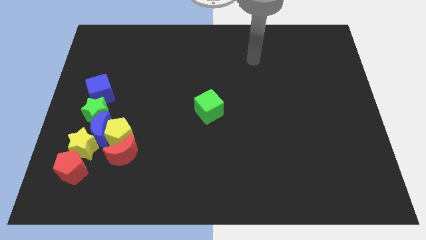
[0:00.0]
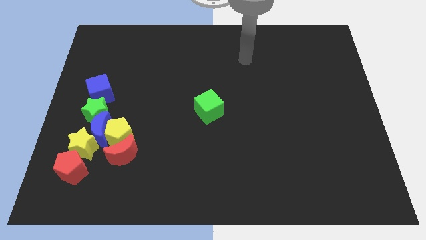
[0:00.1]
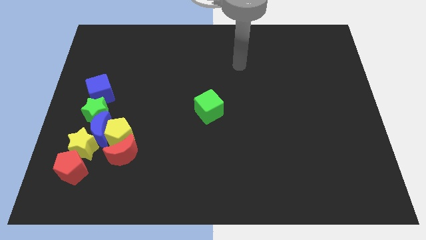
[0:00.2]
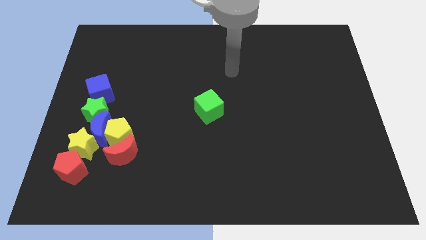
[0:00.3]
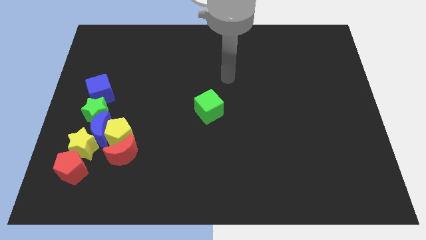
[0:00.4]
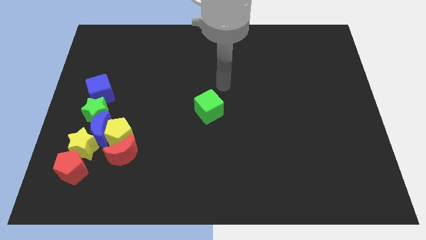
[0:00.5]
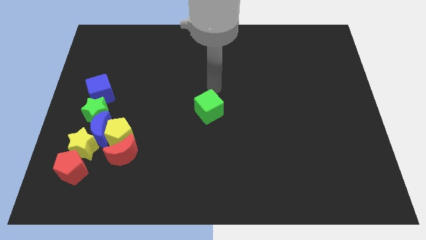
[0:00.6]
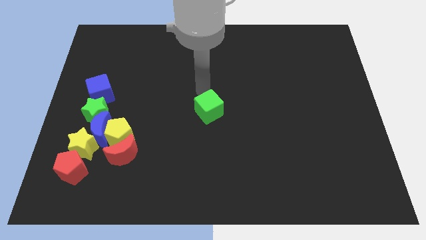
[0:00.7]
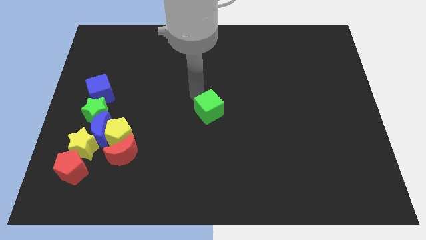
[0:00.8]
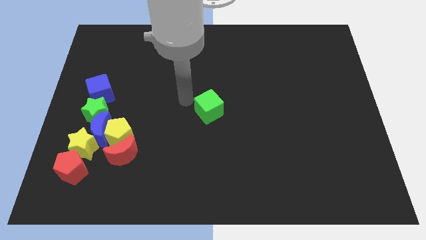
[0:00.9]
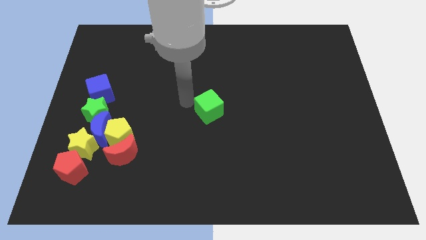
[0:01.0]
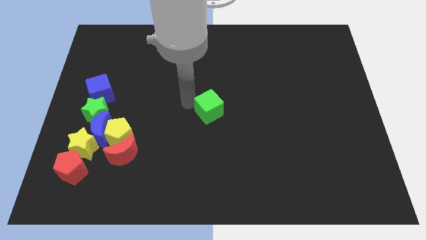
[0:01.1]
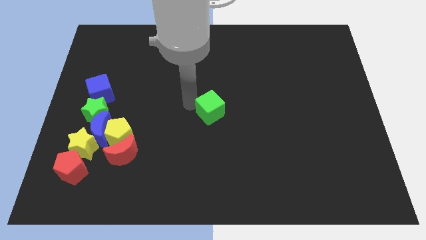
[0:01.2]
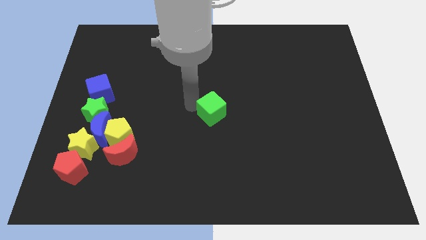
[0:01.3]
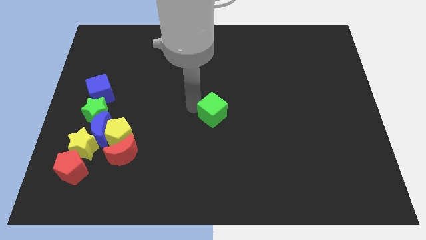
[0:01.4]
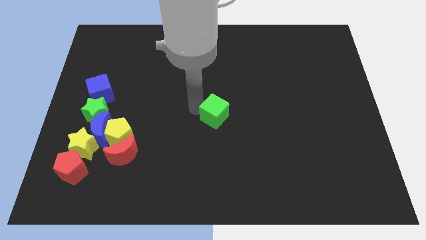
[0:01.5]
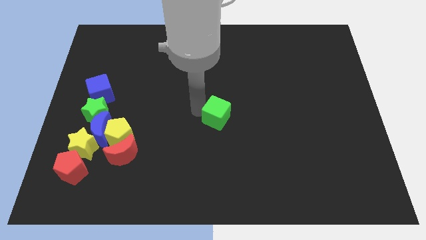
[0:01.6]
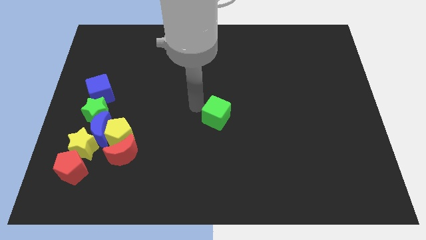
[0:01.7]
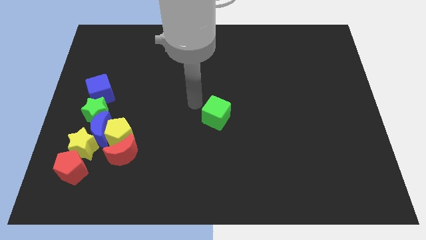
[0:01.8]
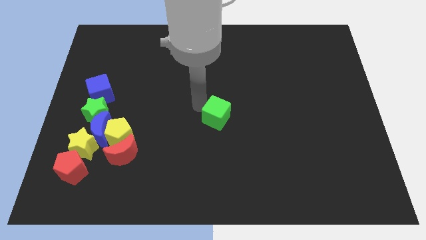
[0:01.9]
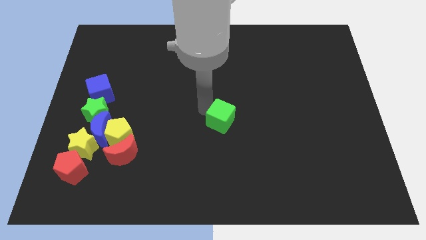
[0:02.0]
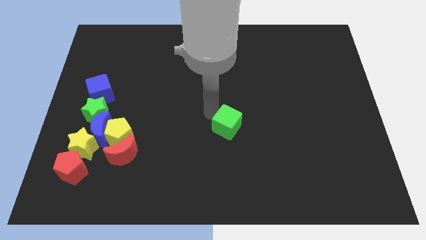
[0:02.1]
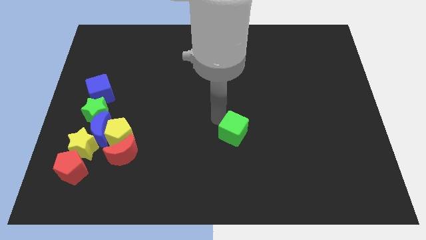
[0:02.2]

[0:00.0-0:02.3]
slide the green cube down and then right slightly

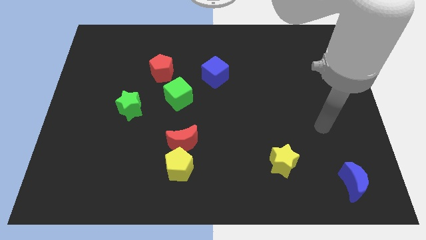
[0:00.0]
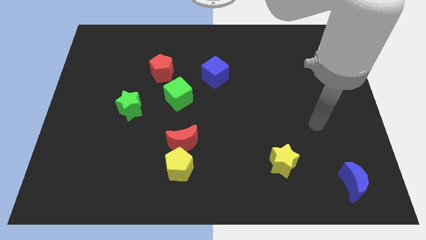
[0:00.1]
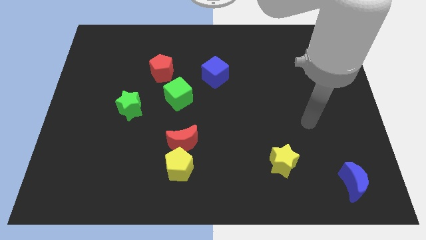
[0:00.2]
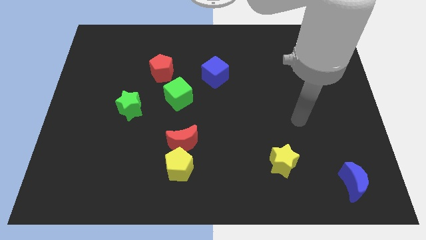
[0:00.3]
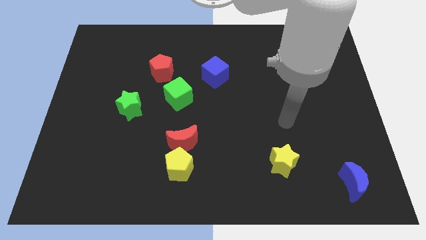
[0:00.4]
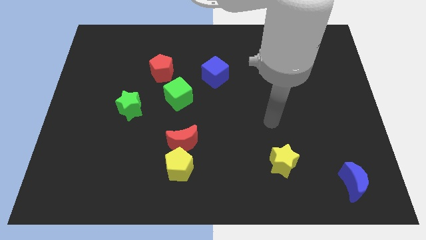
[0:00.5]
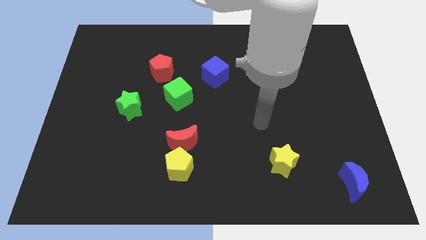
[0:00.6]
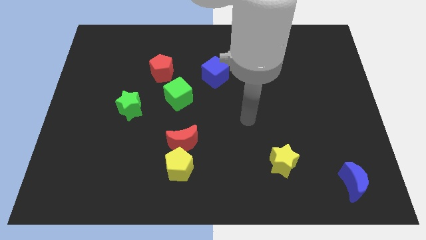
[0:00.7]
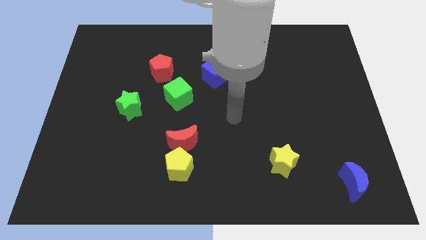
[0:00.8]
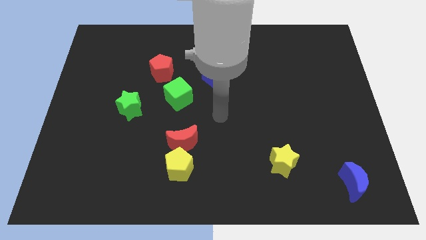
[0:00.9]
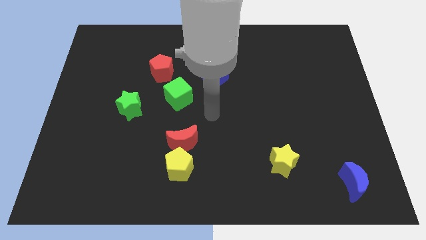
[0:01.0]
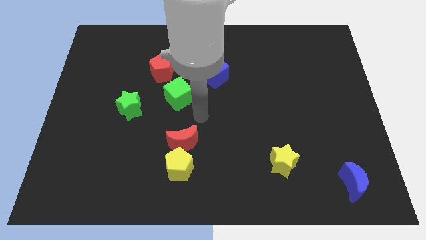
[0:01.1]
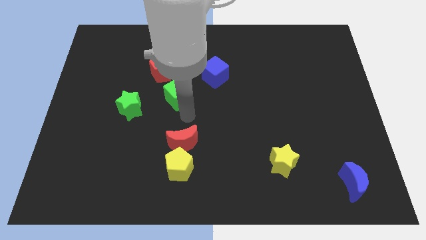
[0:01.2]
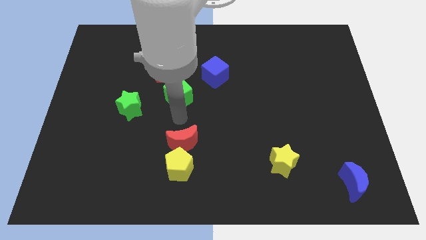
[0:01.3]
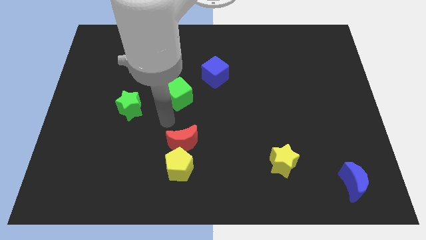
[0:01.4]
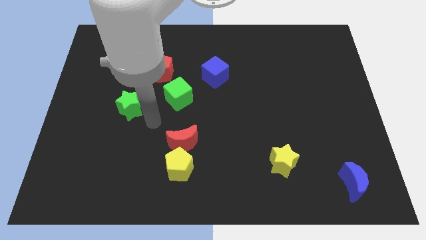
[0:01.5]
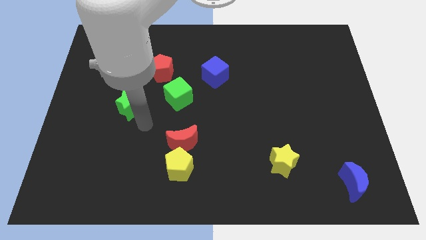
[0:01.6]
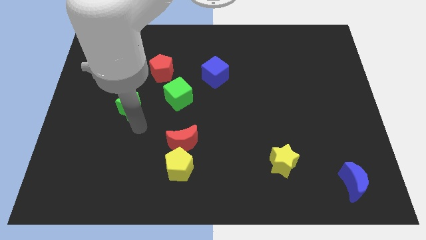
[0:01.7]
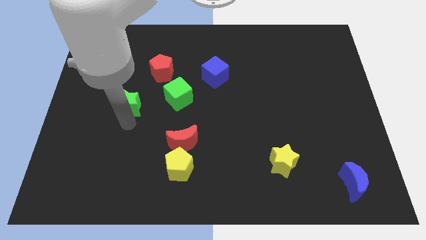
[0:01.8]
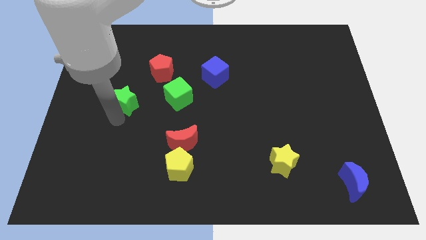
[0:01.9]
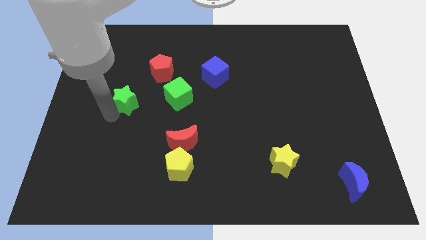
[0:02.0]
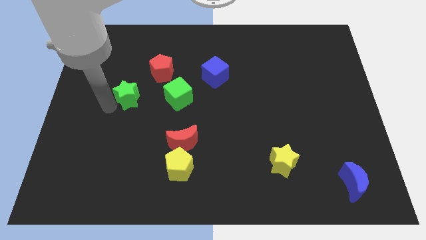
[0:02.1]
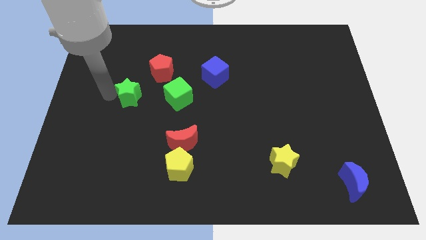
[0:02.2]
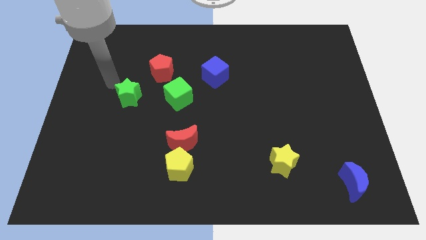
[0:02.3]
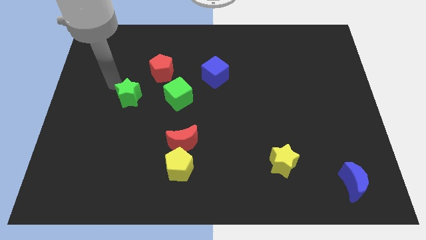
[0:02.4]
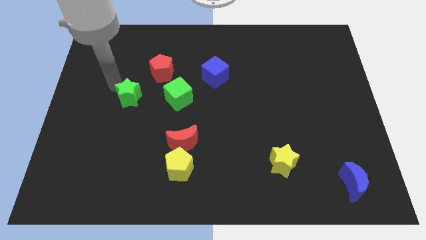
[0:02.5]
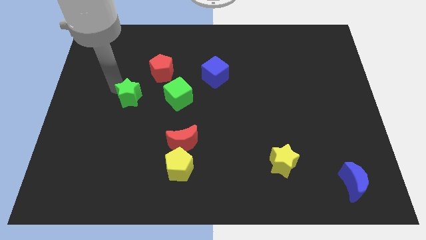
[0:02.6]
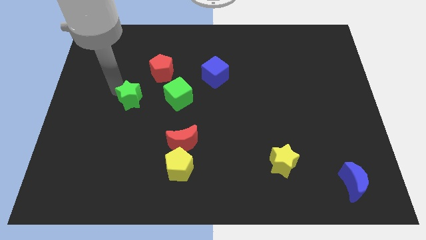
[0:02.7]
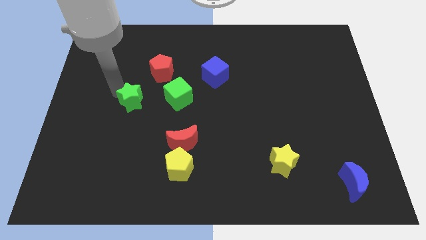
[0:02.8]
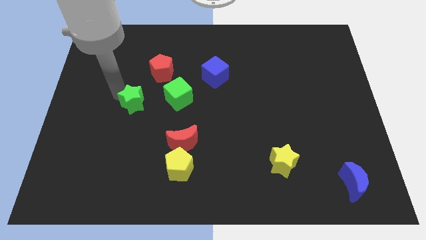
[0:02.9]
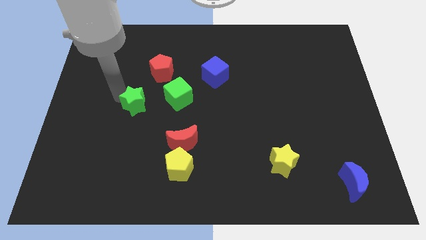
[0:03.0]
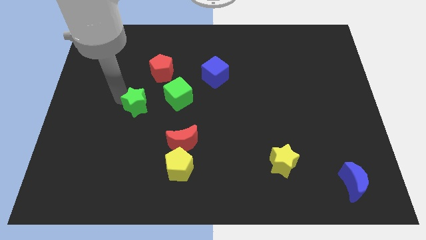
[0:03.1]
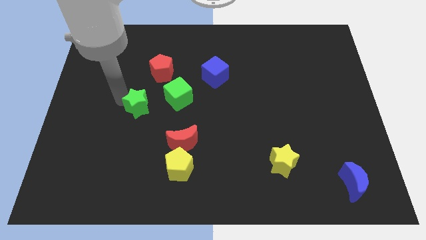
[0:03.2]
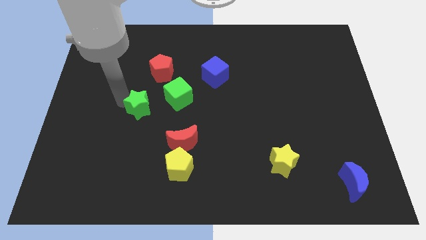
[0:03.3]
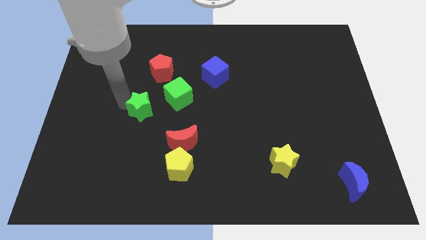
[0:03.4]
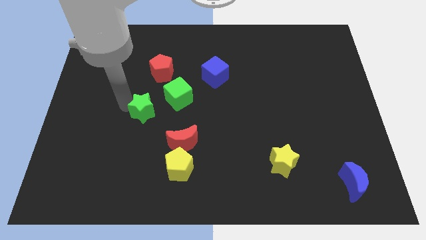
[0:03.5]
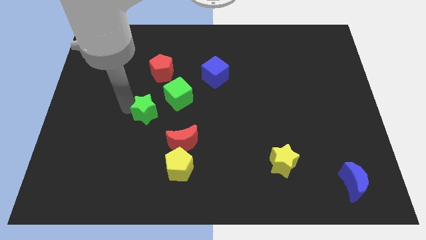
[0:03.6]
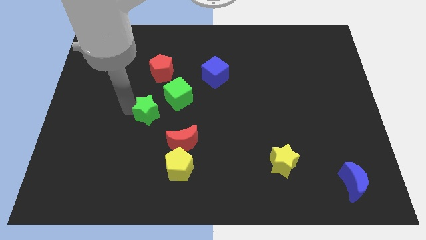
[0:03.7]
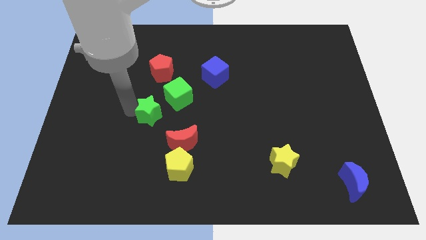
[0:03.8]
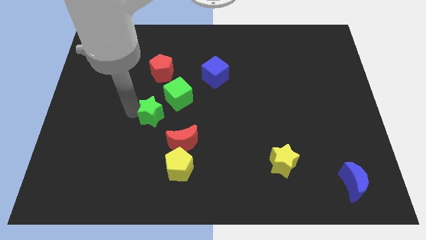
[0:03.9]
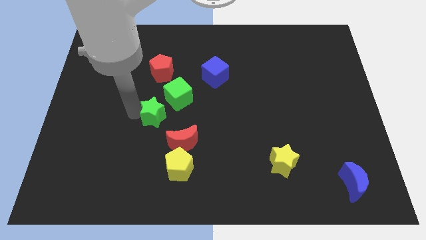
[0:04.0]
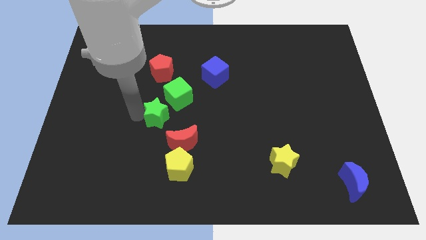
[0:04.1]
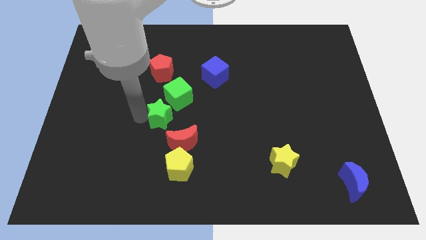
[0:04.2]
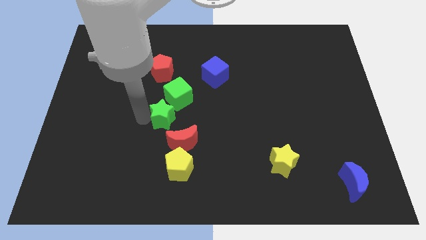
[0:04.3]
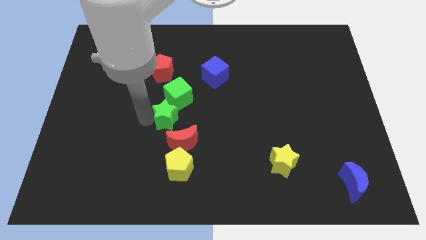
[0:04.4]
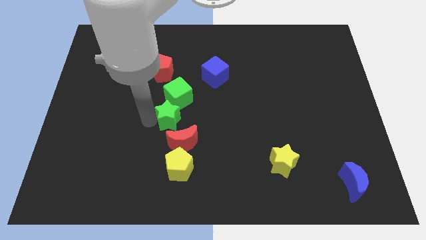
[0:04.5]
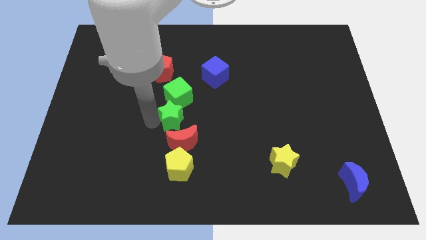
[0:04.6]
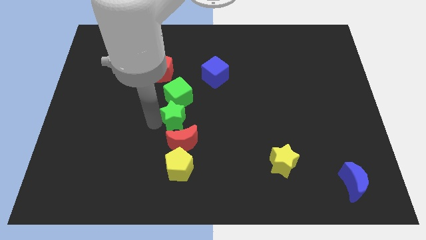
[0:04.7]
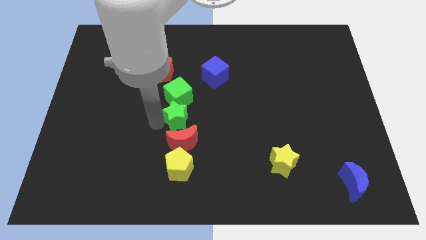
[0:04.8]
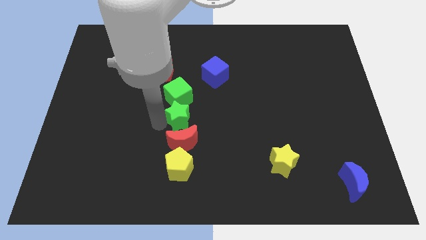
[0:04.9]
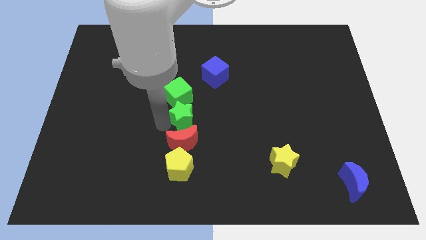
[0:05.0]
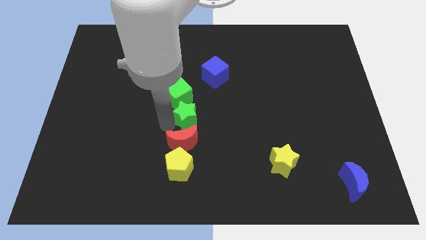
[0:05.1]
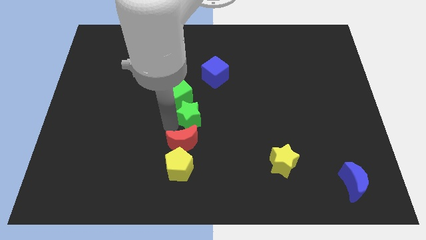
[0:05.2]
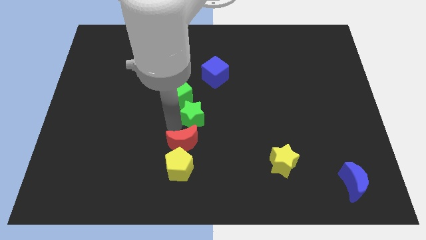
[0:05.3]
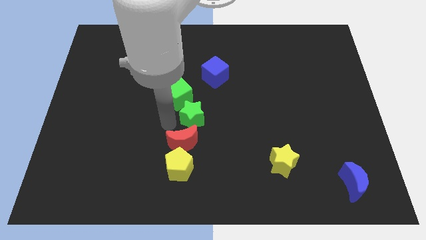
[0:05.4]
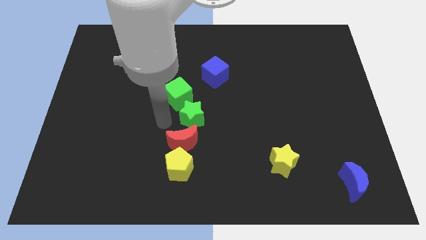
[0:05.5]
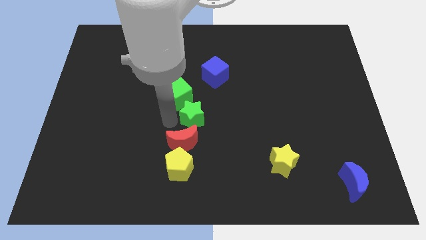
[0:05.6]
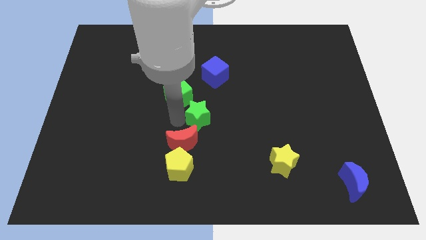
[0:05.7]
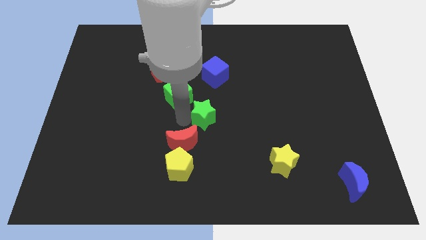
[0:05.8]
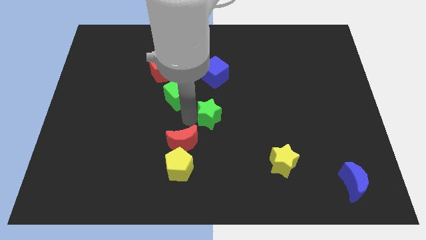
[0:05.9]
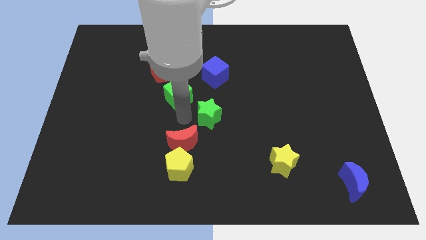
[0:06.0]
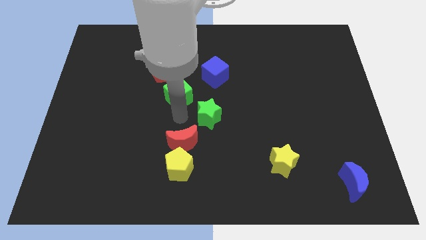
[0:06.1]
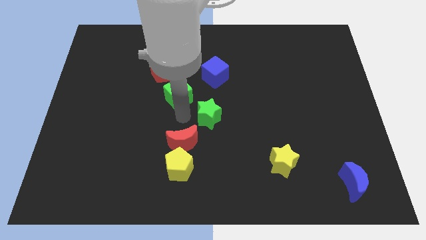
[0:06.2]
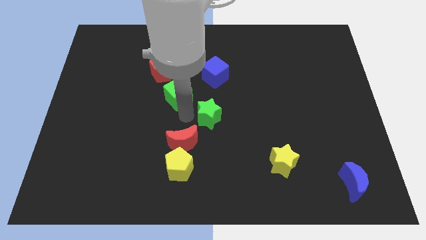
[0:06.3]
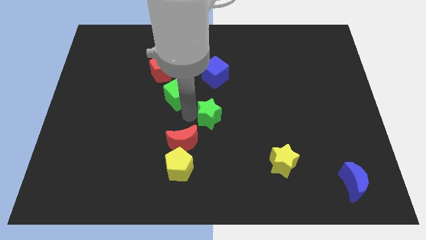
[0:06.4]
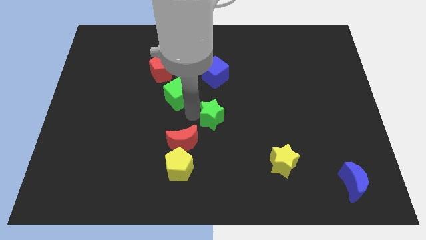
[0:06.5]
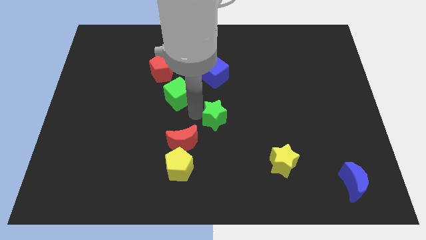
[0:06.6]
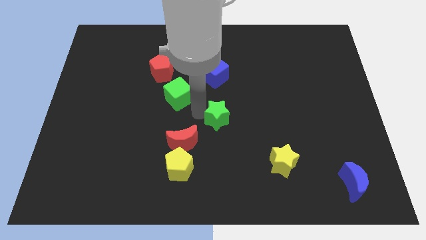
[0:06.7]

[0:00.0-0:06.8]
move the green star to the right
